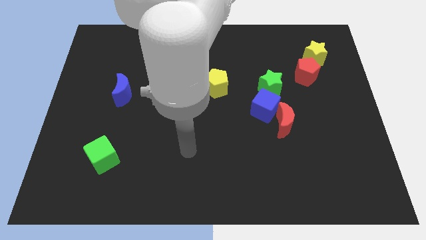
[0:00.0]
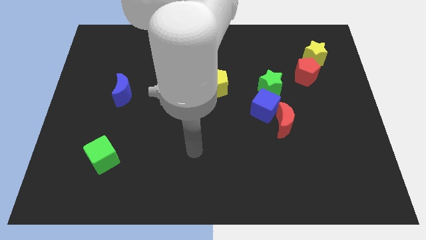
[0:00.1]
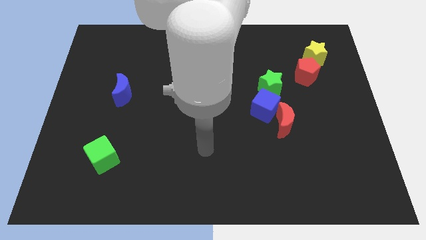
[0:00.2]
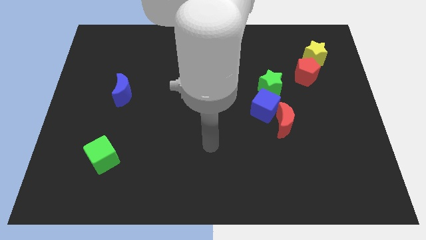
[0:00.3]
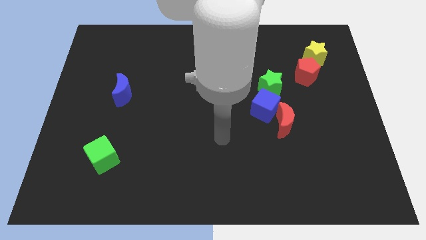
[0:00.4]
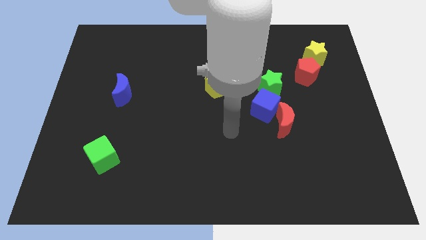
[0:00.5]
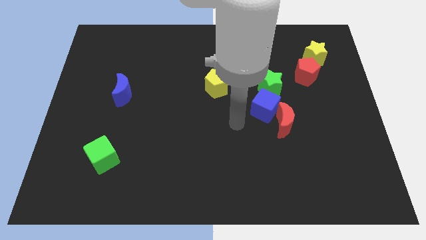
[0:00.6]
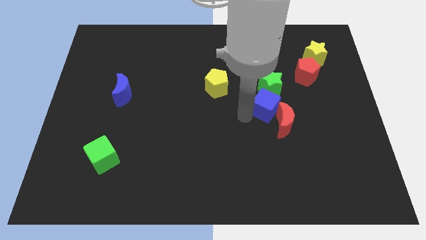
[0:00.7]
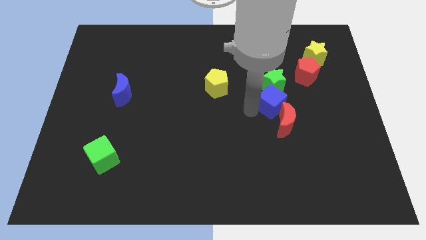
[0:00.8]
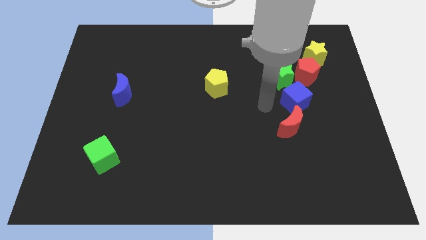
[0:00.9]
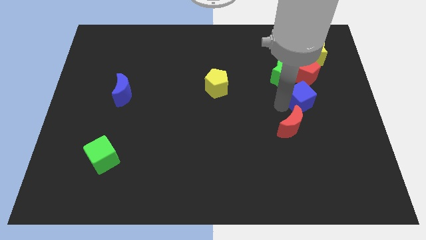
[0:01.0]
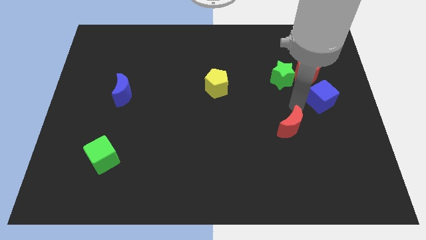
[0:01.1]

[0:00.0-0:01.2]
separate the red moon from the blue cube

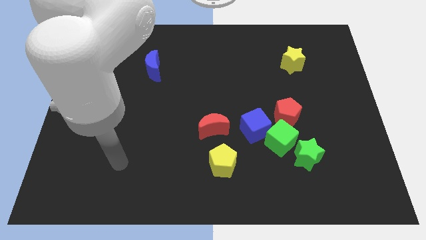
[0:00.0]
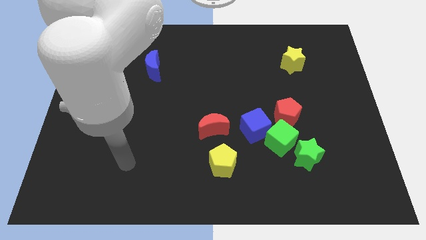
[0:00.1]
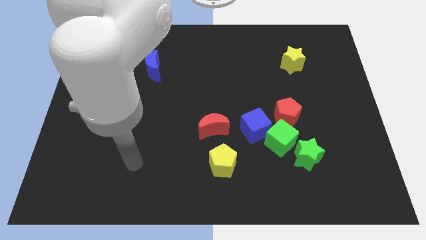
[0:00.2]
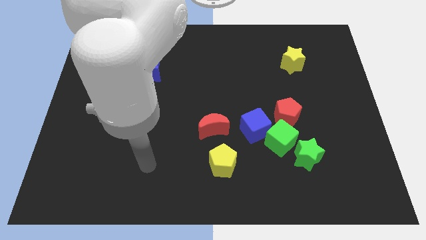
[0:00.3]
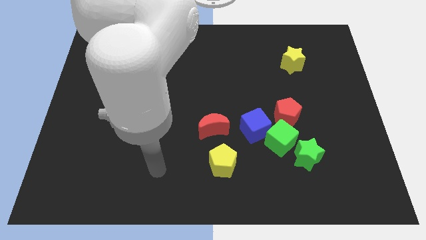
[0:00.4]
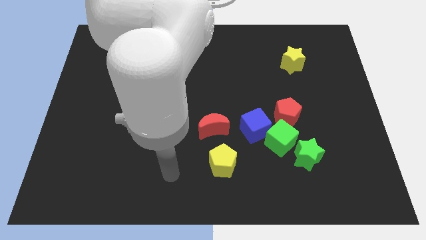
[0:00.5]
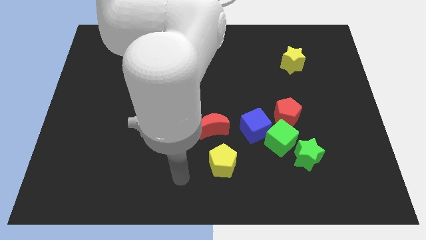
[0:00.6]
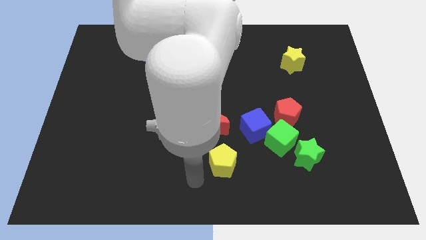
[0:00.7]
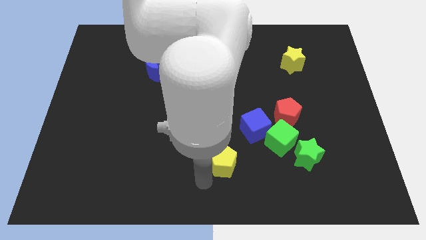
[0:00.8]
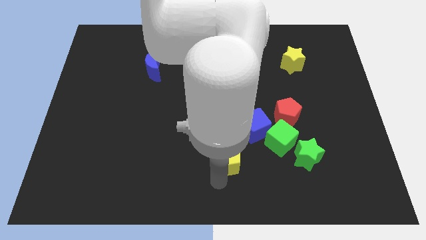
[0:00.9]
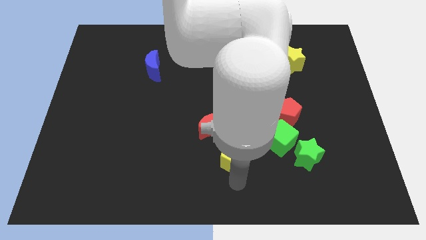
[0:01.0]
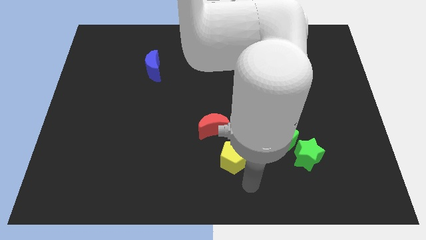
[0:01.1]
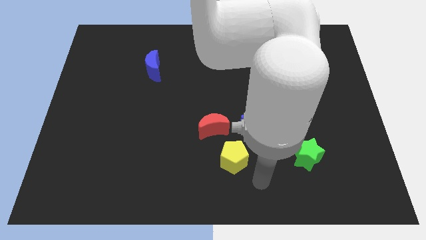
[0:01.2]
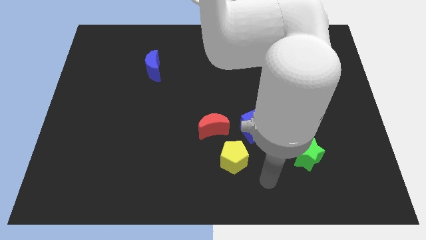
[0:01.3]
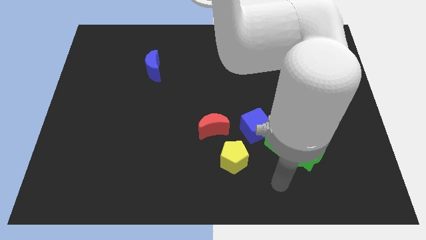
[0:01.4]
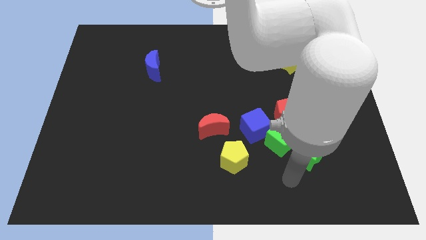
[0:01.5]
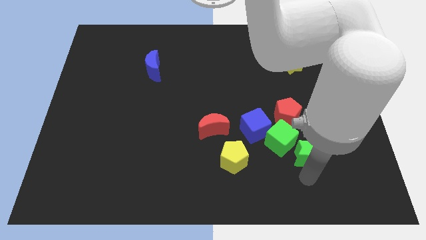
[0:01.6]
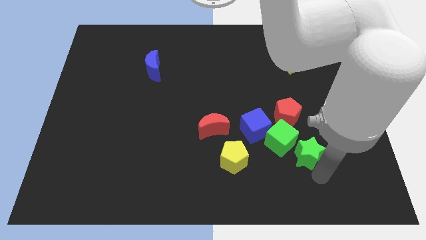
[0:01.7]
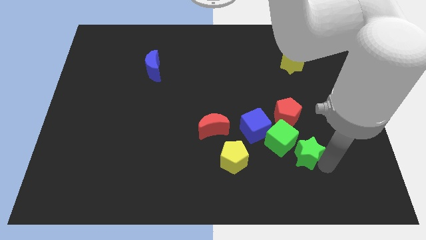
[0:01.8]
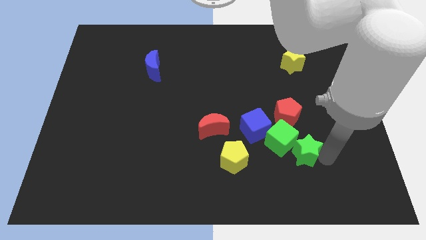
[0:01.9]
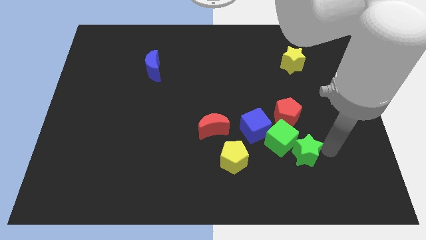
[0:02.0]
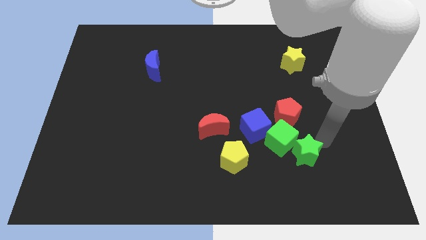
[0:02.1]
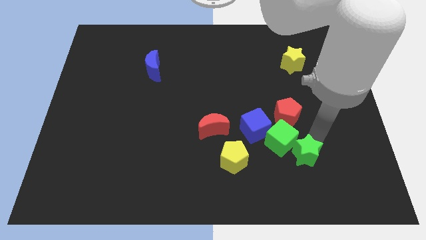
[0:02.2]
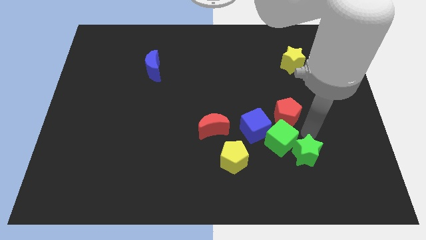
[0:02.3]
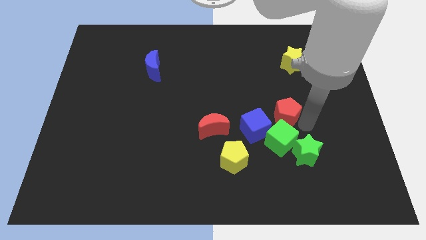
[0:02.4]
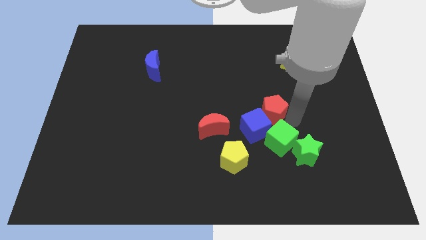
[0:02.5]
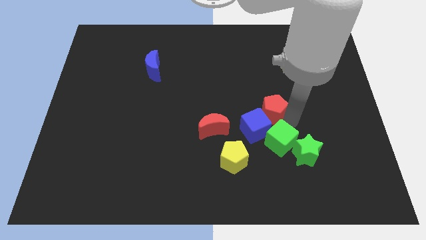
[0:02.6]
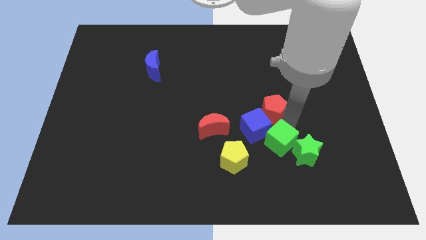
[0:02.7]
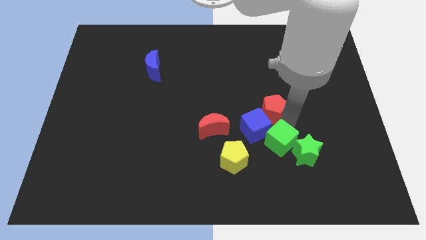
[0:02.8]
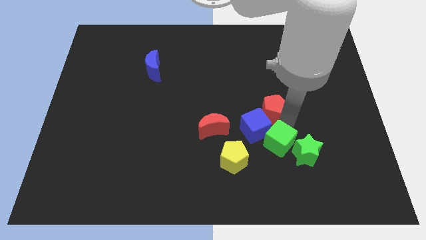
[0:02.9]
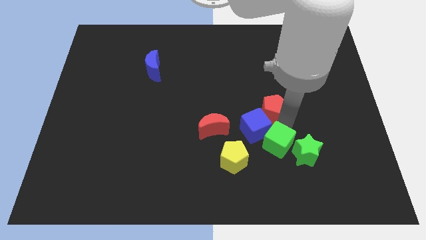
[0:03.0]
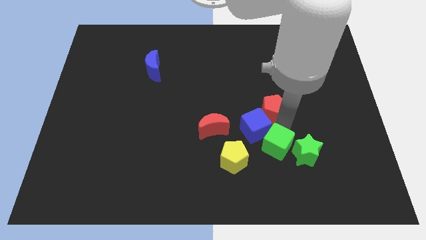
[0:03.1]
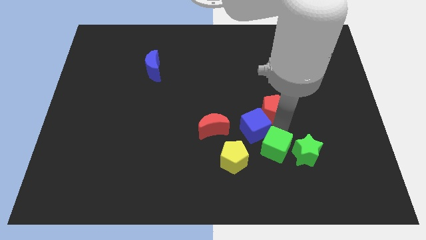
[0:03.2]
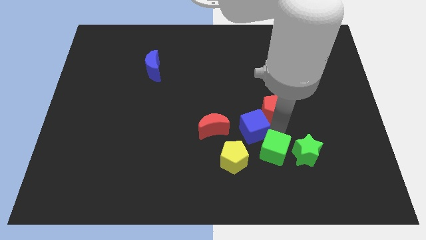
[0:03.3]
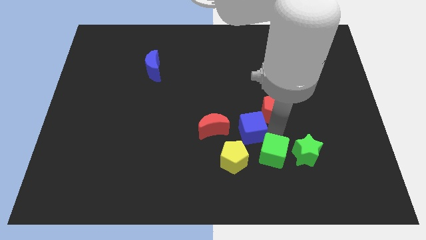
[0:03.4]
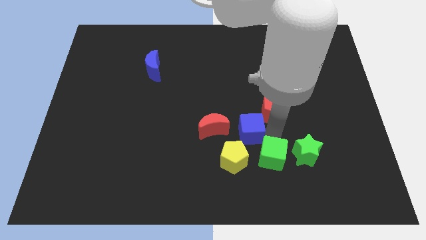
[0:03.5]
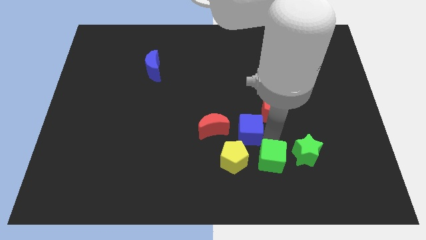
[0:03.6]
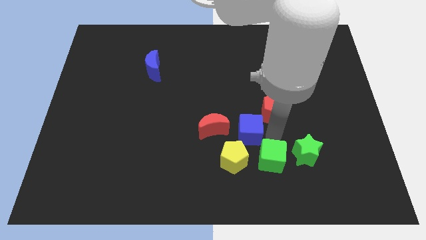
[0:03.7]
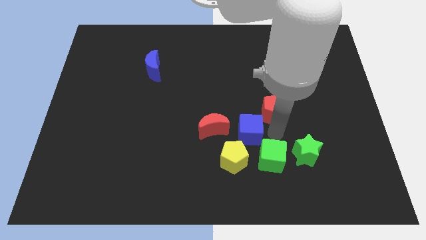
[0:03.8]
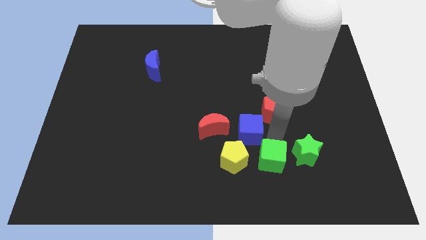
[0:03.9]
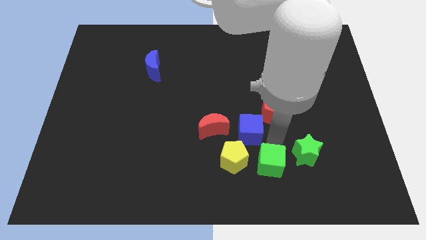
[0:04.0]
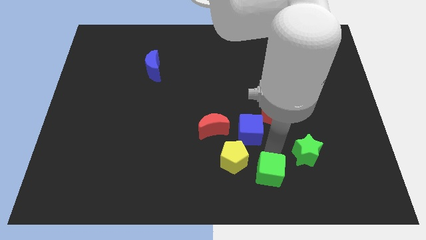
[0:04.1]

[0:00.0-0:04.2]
move the green cube away from the clump

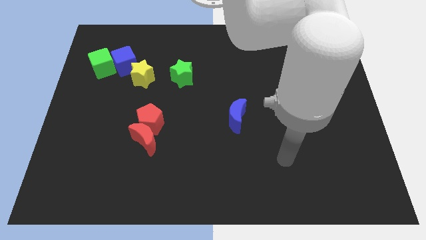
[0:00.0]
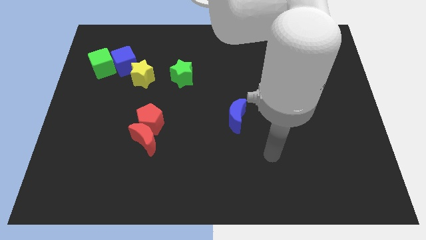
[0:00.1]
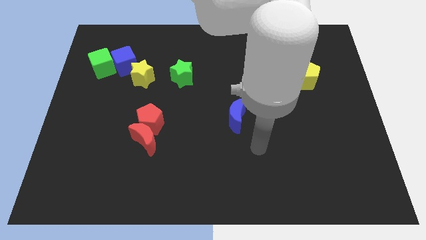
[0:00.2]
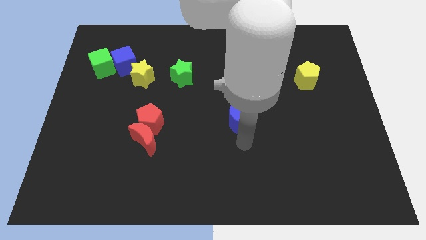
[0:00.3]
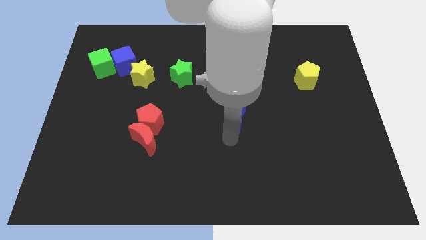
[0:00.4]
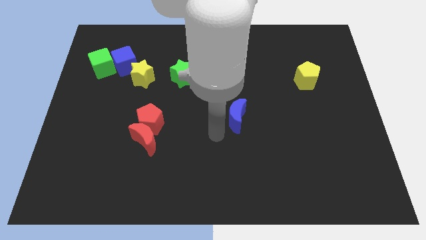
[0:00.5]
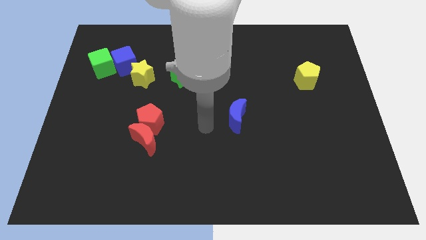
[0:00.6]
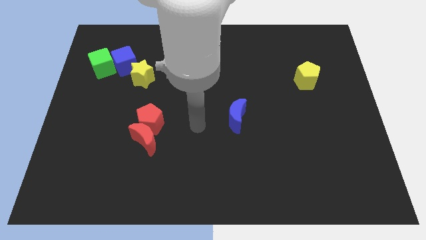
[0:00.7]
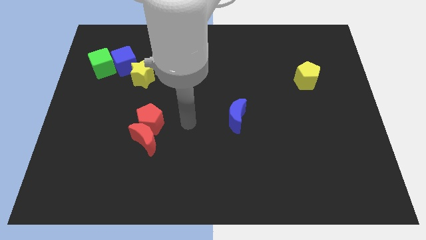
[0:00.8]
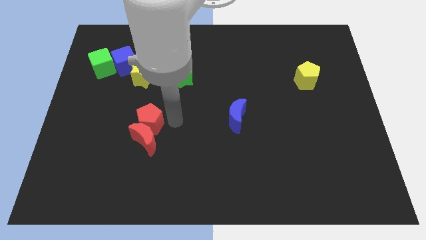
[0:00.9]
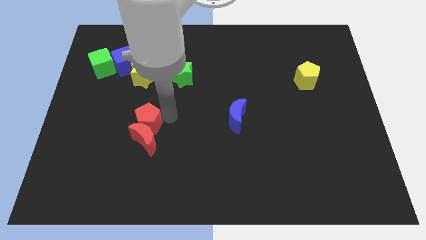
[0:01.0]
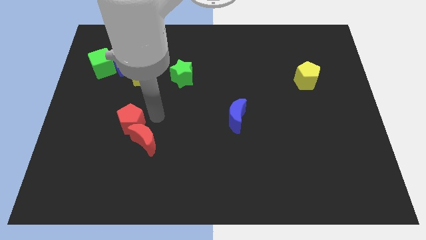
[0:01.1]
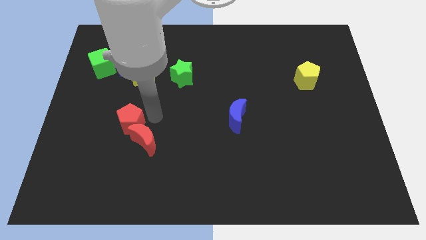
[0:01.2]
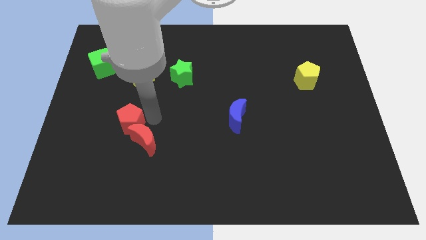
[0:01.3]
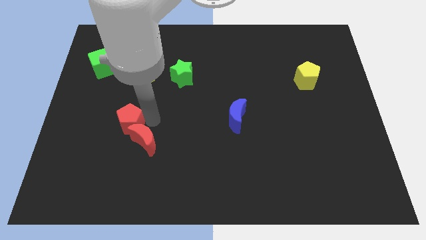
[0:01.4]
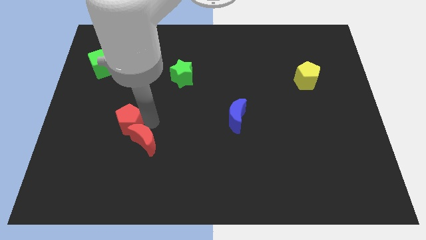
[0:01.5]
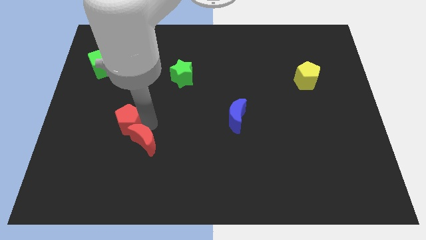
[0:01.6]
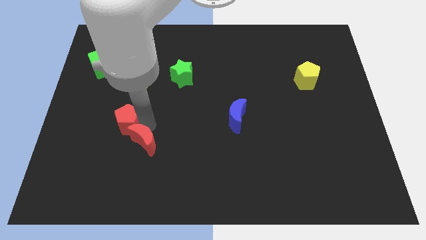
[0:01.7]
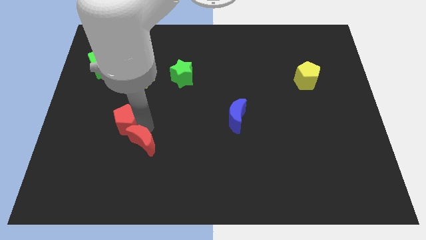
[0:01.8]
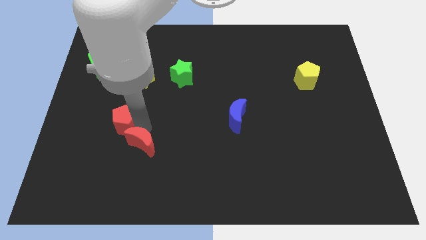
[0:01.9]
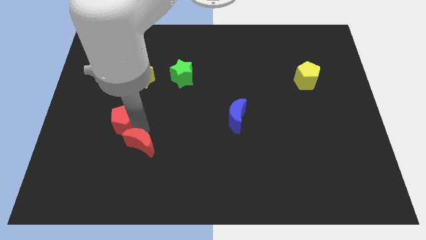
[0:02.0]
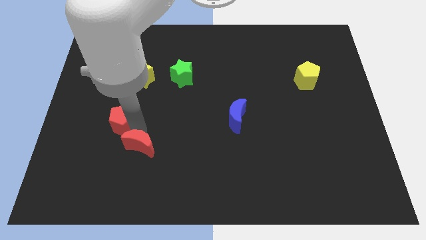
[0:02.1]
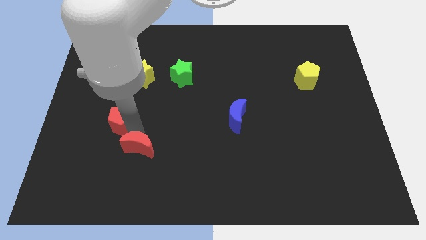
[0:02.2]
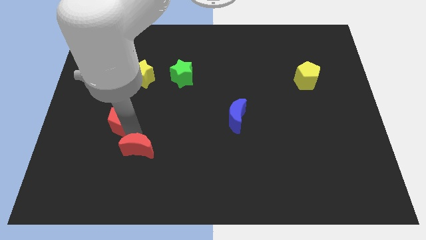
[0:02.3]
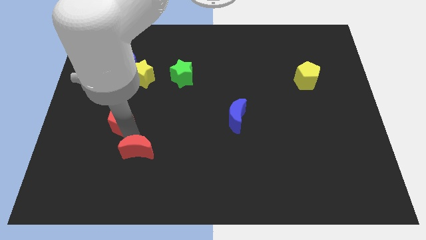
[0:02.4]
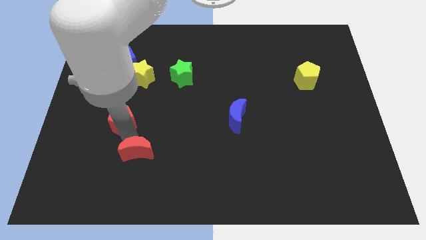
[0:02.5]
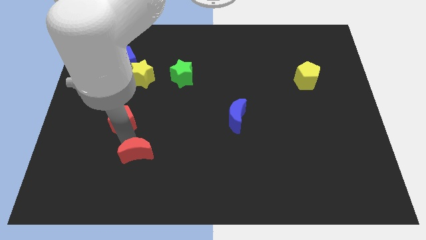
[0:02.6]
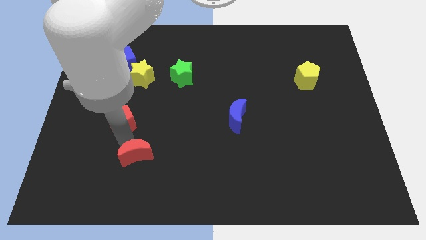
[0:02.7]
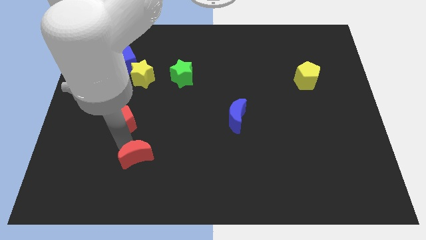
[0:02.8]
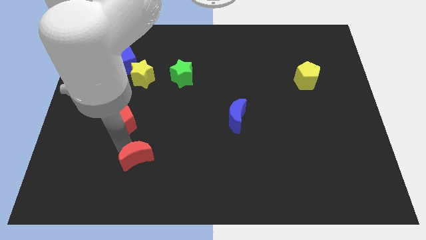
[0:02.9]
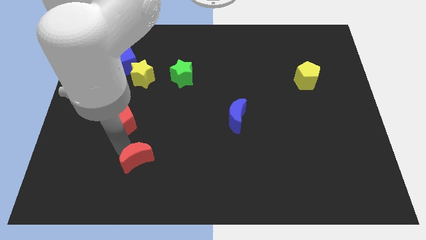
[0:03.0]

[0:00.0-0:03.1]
pull the red moon apart from the red pentagon

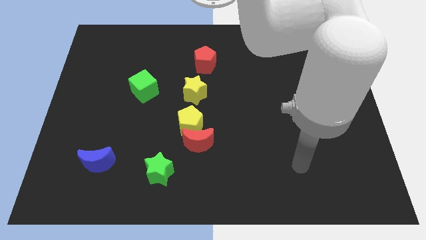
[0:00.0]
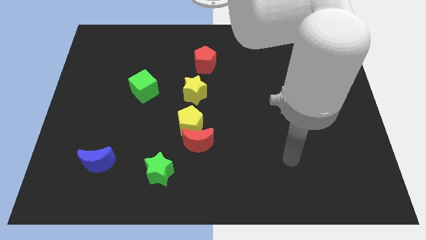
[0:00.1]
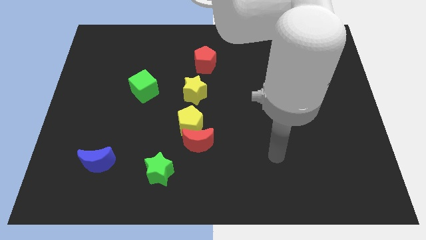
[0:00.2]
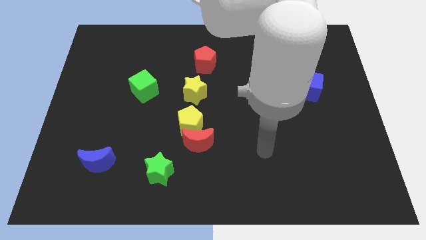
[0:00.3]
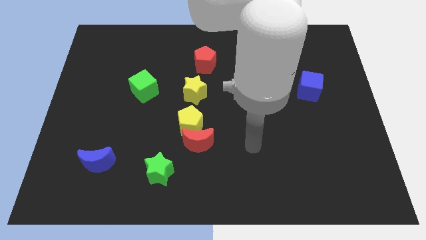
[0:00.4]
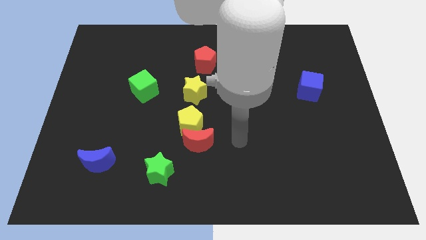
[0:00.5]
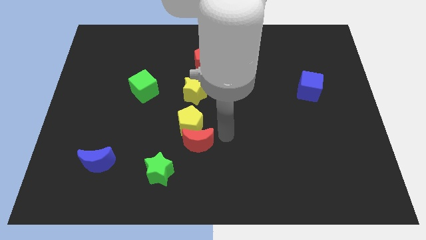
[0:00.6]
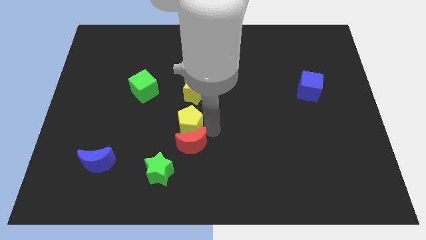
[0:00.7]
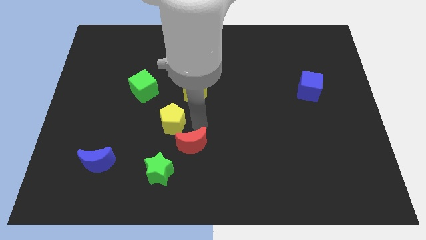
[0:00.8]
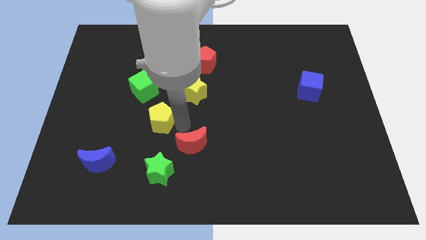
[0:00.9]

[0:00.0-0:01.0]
move the red moon away from the yellow pentagon
